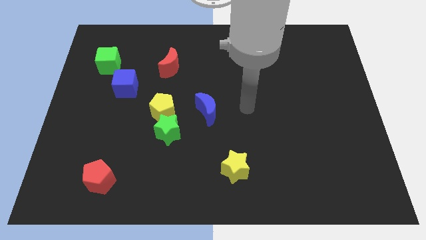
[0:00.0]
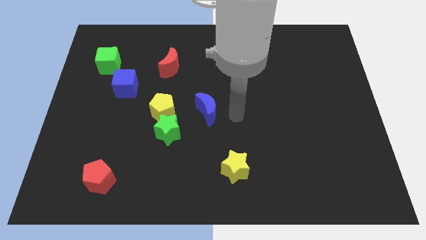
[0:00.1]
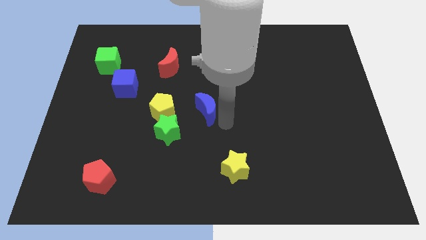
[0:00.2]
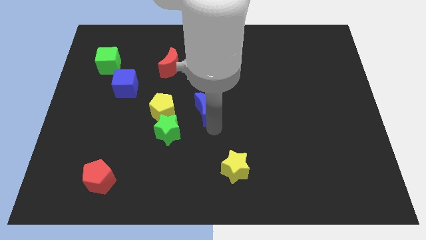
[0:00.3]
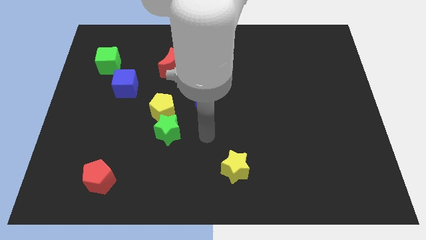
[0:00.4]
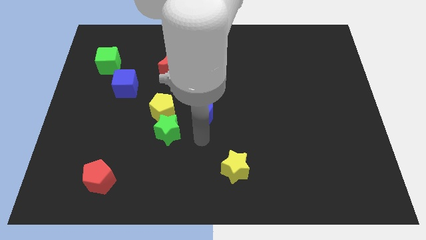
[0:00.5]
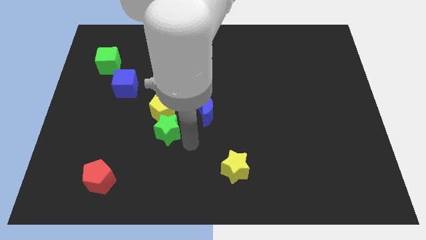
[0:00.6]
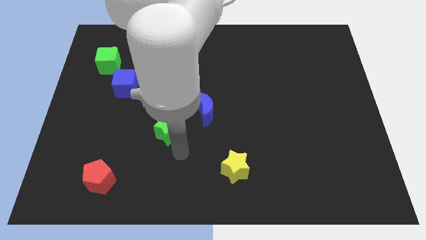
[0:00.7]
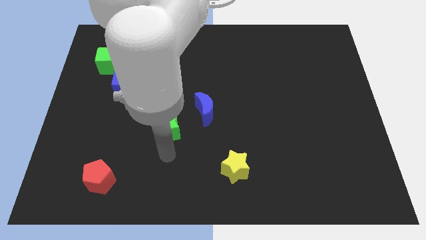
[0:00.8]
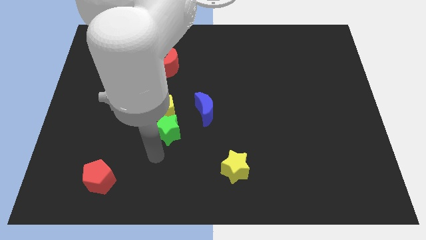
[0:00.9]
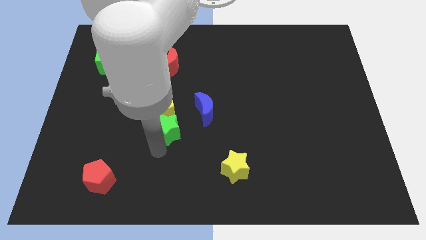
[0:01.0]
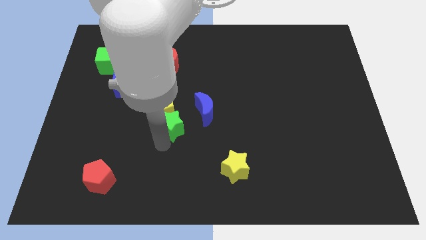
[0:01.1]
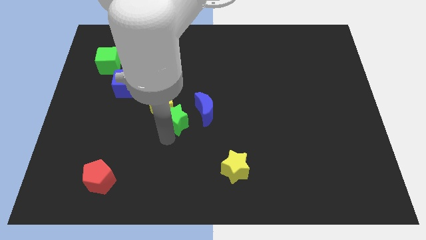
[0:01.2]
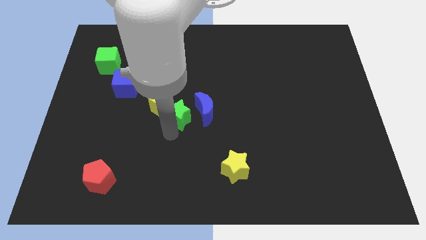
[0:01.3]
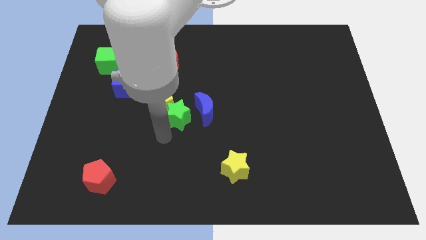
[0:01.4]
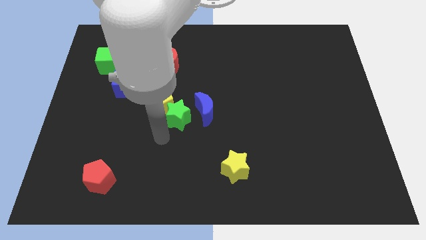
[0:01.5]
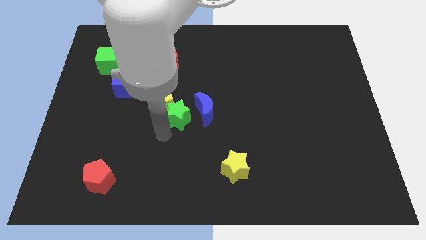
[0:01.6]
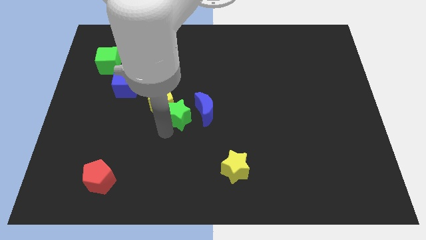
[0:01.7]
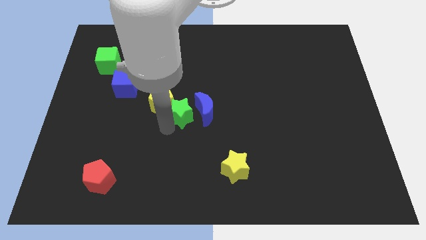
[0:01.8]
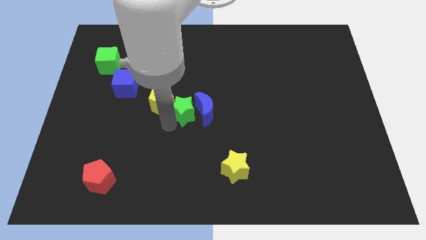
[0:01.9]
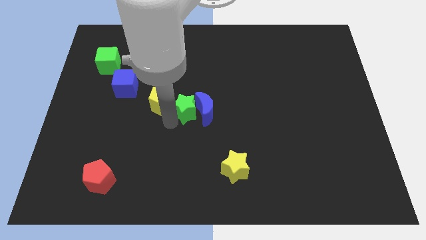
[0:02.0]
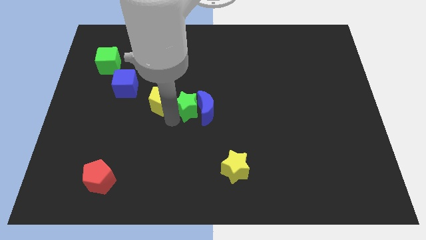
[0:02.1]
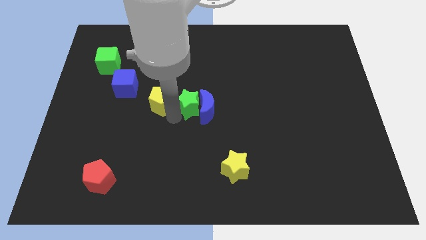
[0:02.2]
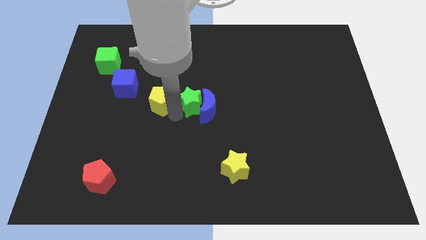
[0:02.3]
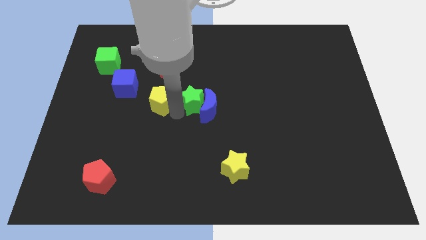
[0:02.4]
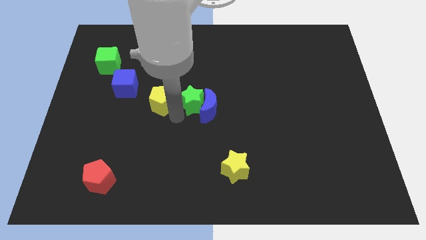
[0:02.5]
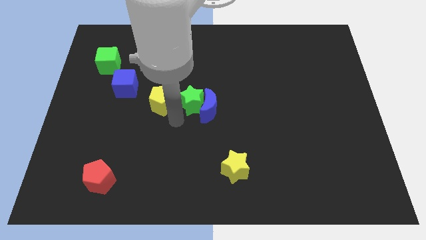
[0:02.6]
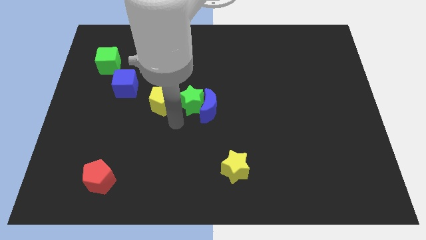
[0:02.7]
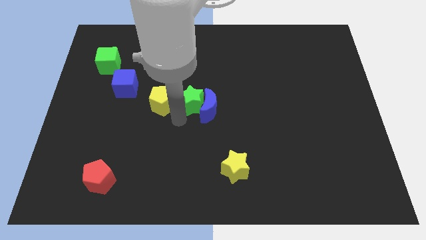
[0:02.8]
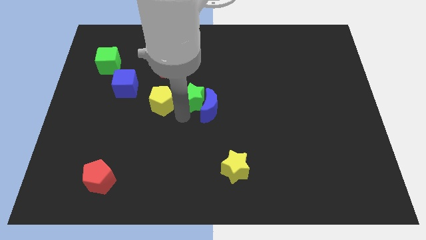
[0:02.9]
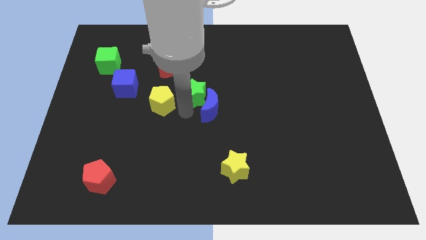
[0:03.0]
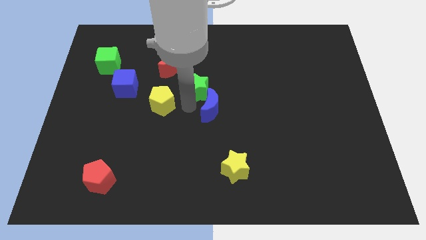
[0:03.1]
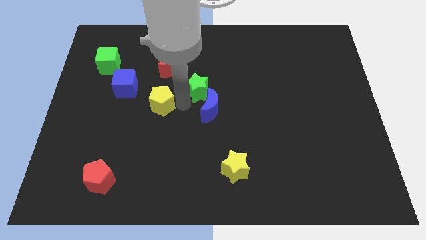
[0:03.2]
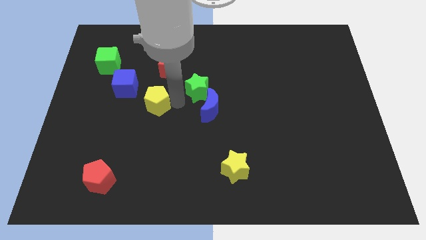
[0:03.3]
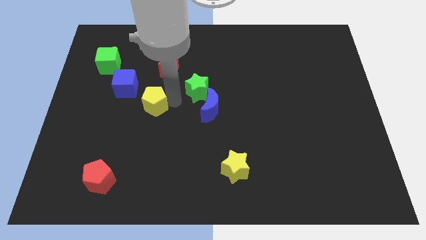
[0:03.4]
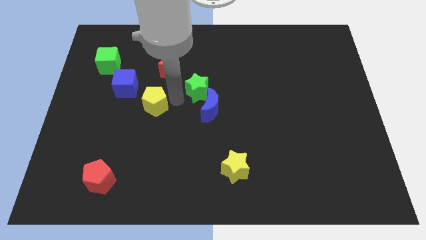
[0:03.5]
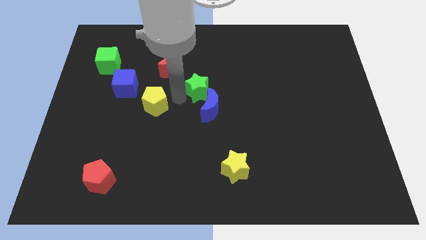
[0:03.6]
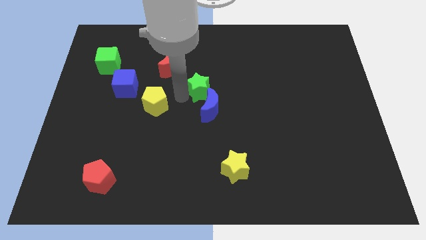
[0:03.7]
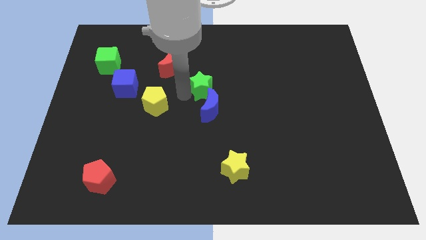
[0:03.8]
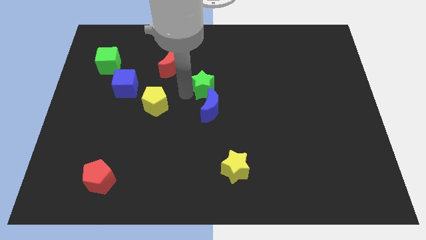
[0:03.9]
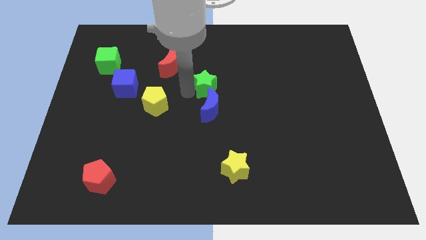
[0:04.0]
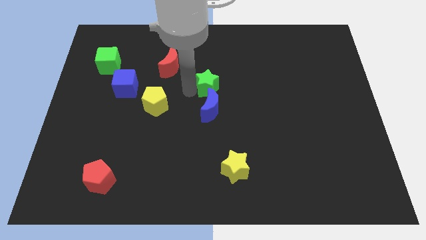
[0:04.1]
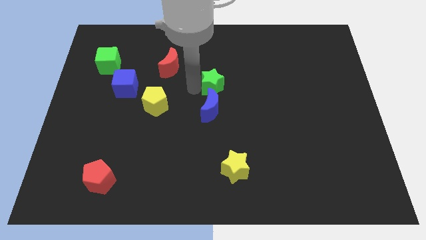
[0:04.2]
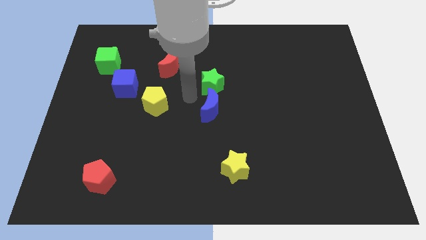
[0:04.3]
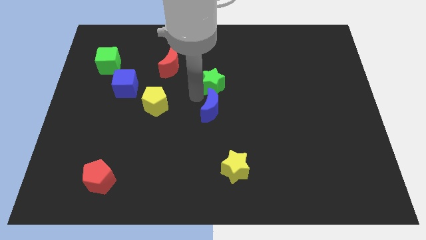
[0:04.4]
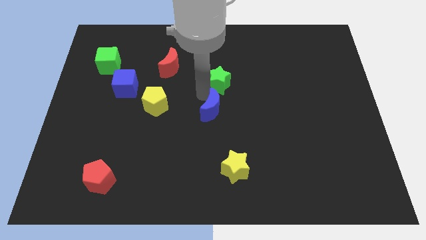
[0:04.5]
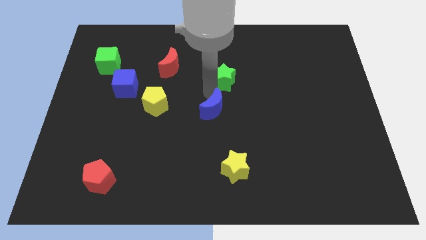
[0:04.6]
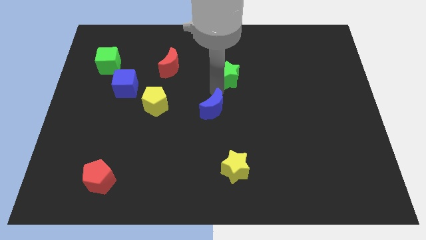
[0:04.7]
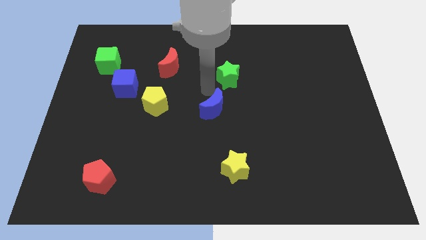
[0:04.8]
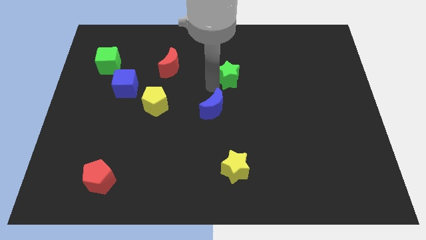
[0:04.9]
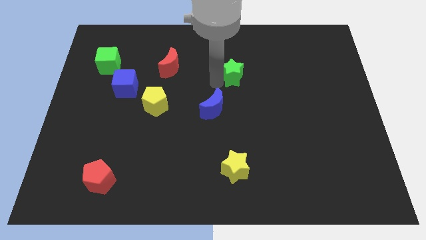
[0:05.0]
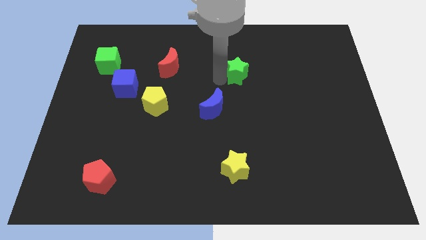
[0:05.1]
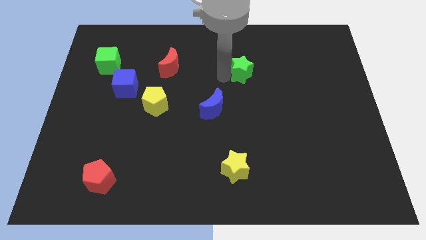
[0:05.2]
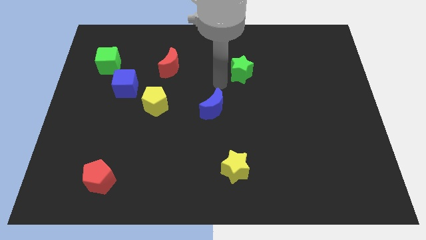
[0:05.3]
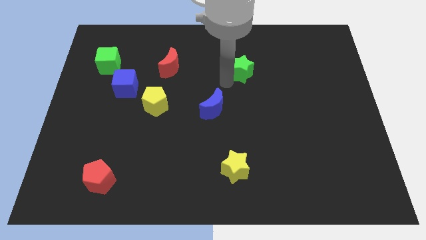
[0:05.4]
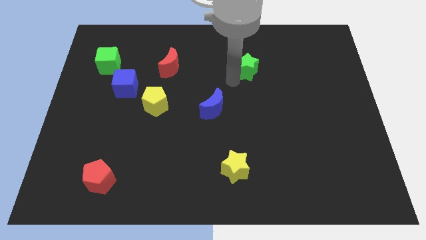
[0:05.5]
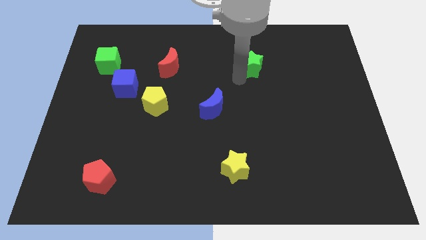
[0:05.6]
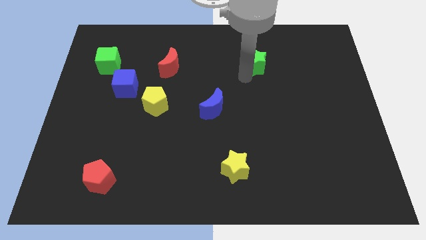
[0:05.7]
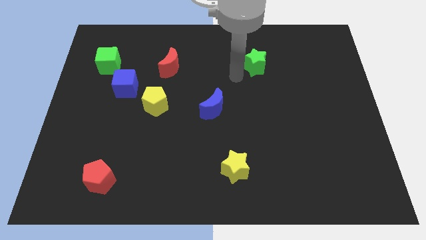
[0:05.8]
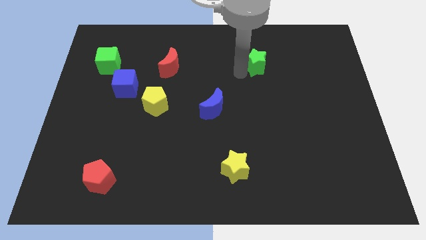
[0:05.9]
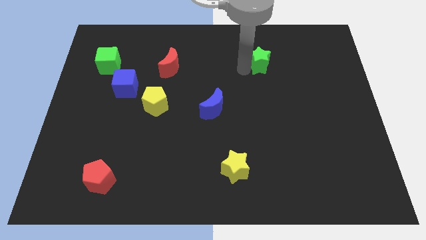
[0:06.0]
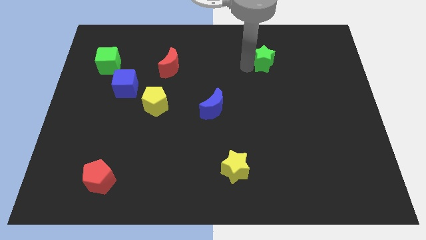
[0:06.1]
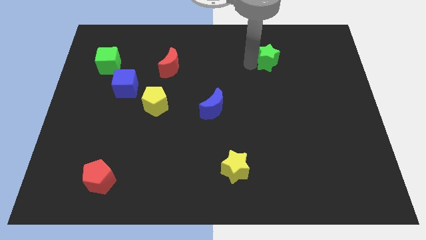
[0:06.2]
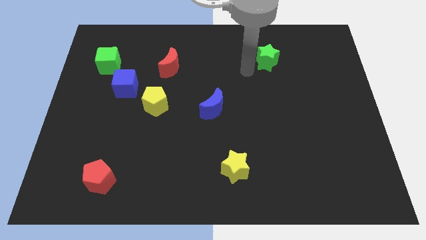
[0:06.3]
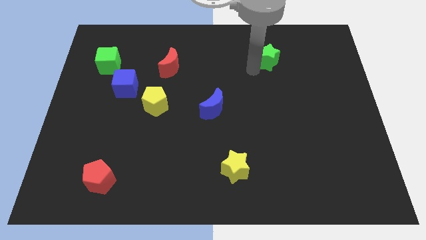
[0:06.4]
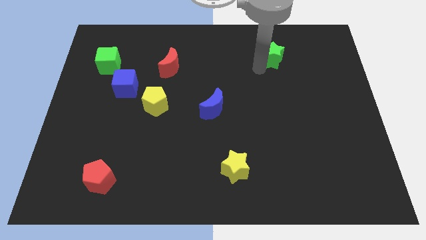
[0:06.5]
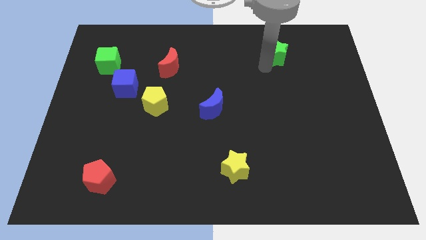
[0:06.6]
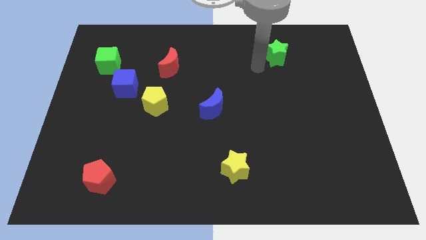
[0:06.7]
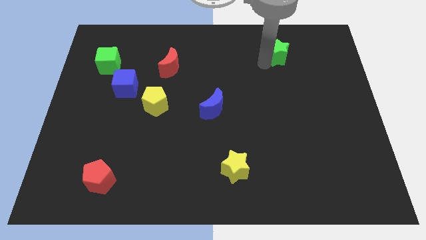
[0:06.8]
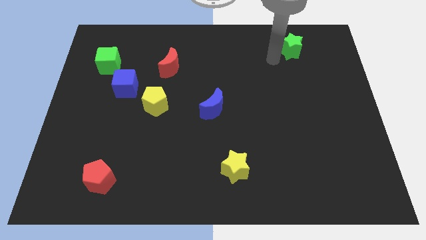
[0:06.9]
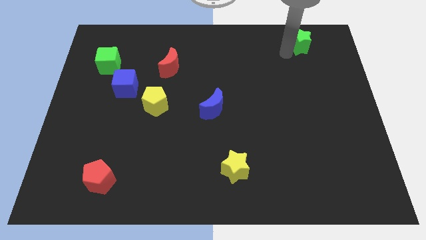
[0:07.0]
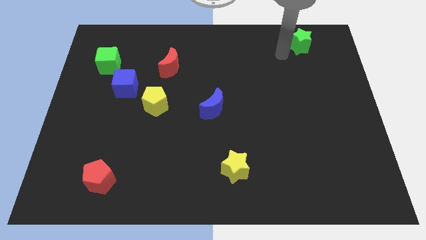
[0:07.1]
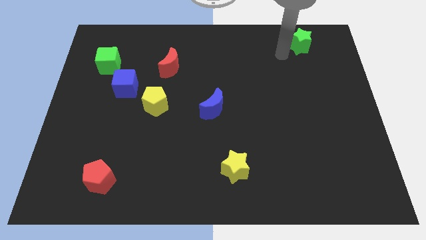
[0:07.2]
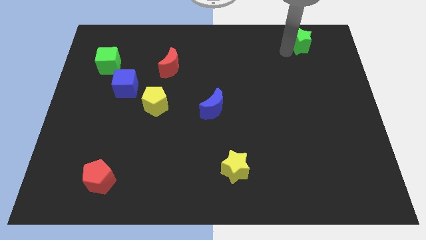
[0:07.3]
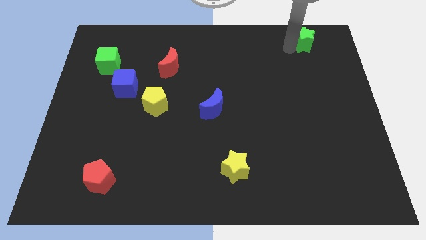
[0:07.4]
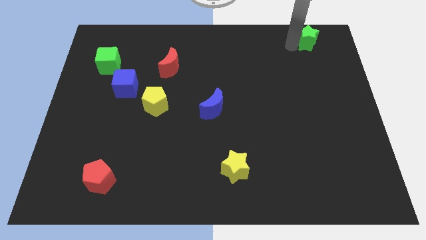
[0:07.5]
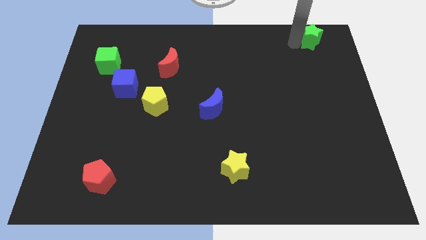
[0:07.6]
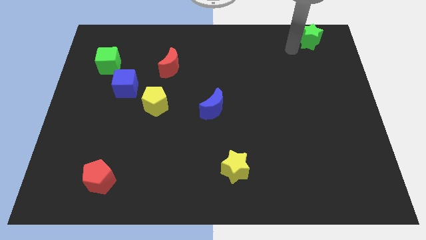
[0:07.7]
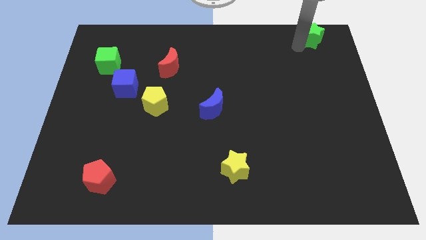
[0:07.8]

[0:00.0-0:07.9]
slide the green star to the top right of the board
